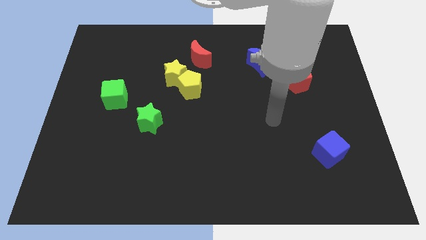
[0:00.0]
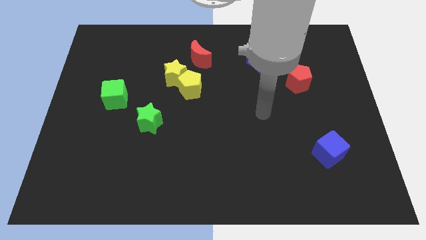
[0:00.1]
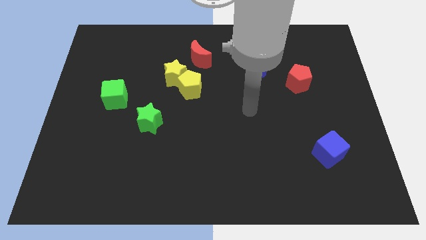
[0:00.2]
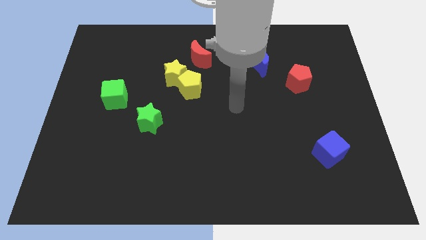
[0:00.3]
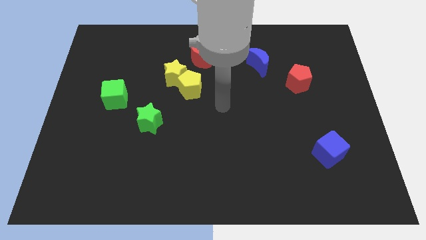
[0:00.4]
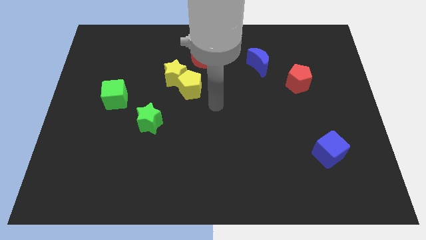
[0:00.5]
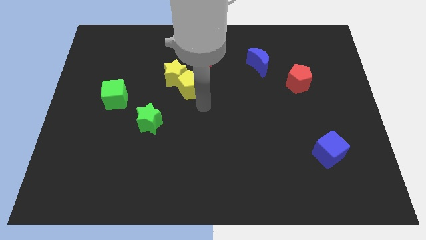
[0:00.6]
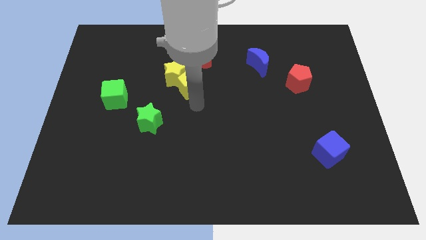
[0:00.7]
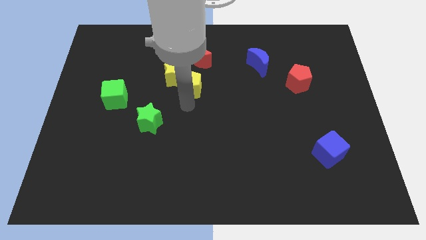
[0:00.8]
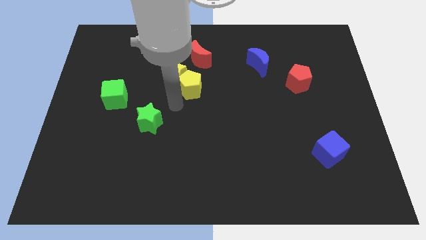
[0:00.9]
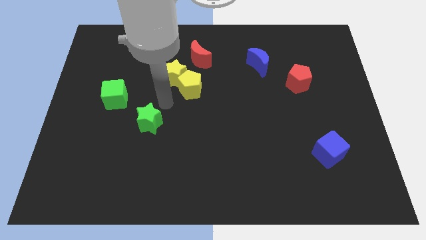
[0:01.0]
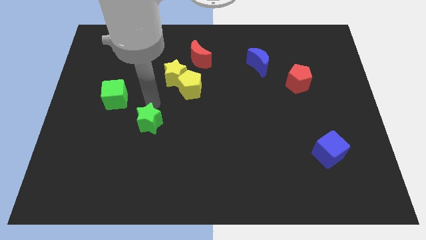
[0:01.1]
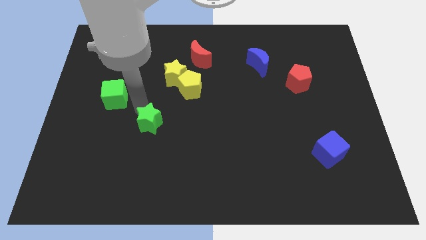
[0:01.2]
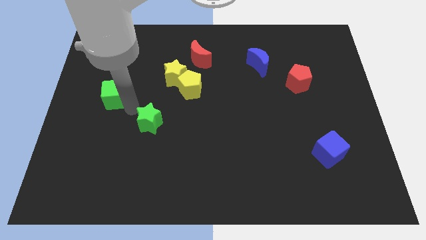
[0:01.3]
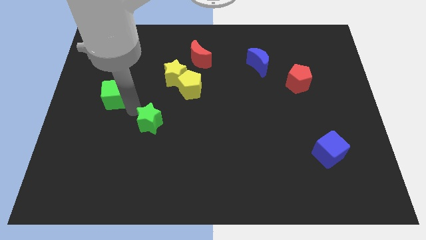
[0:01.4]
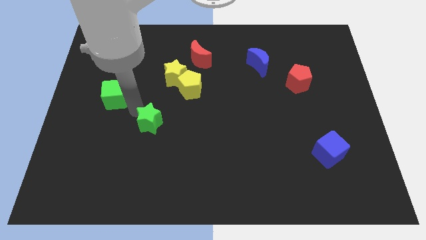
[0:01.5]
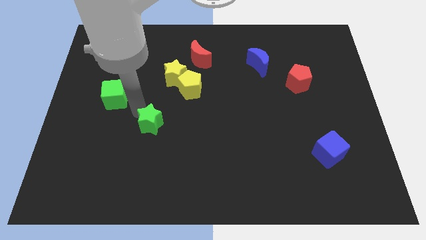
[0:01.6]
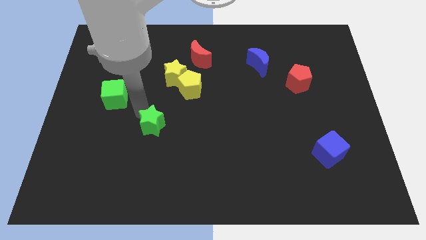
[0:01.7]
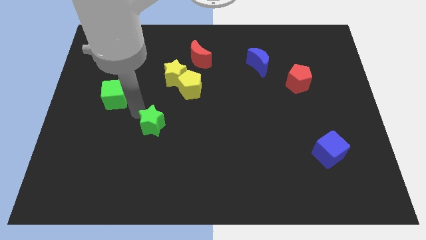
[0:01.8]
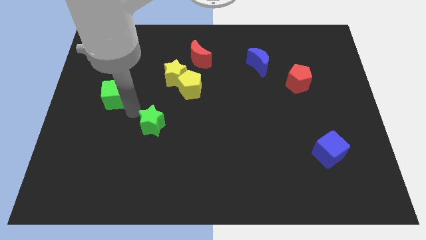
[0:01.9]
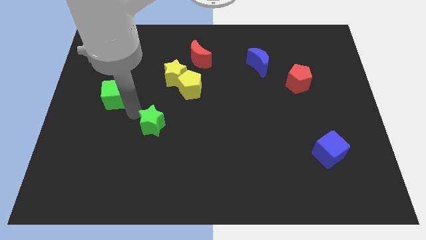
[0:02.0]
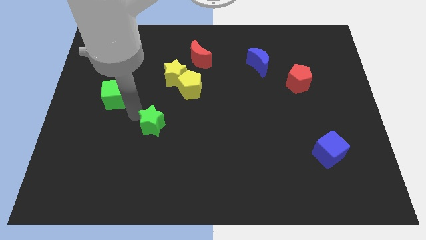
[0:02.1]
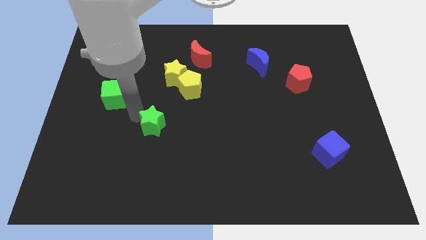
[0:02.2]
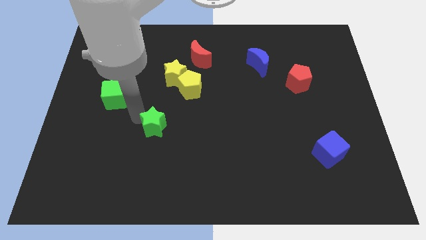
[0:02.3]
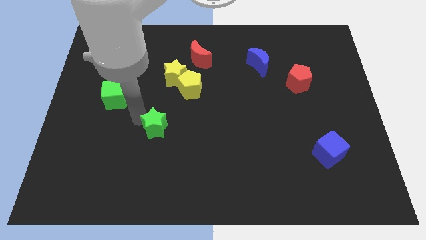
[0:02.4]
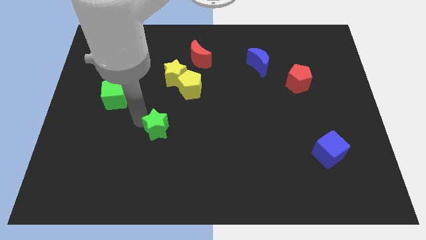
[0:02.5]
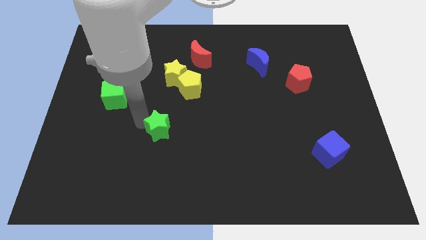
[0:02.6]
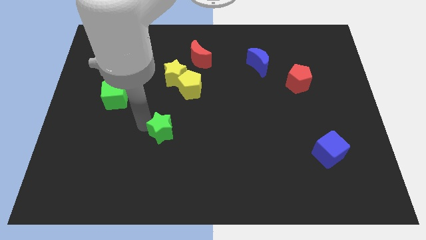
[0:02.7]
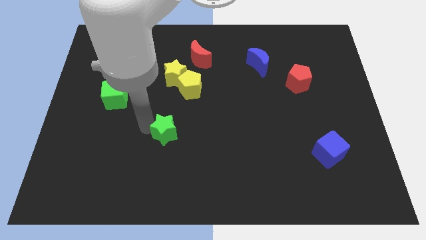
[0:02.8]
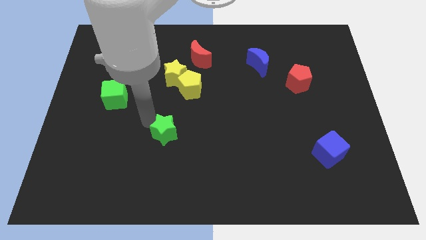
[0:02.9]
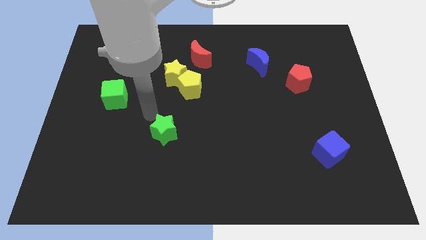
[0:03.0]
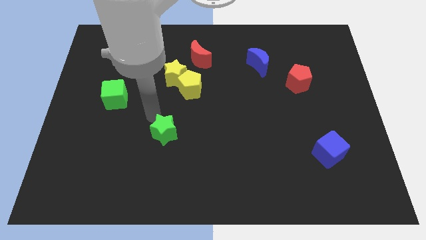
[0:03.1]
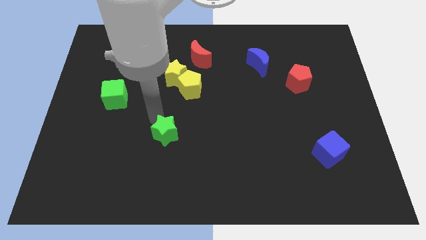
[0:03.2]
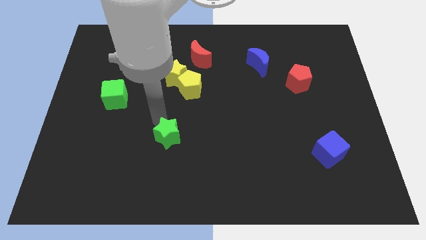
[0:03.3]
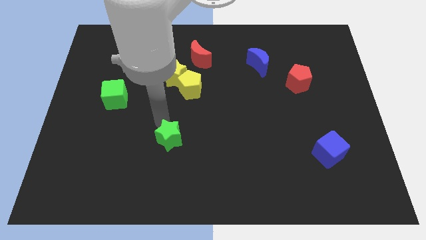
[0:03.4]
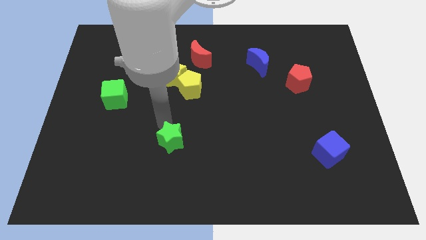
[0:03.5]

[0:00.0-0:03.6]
move the green star down and to the right diagonally a little bit

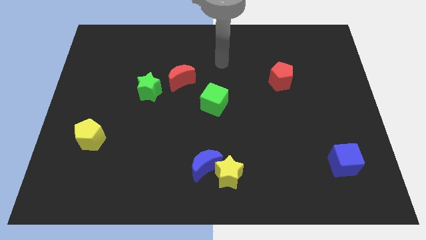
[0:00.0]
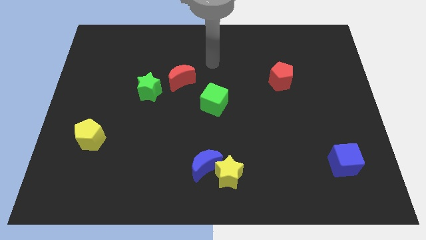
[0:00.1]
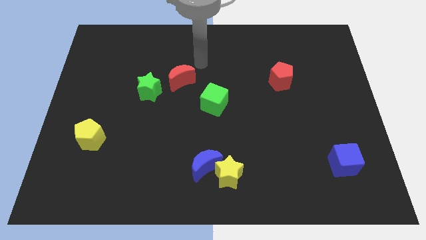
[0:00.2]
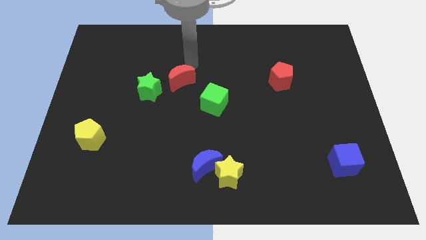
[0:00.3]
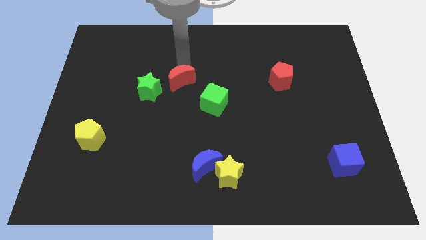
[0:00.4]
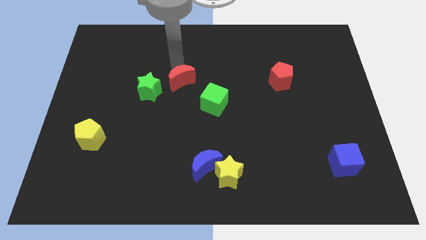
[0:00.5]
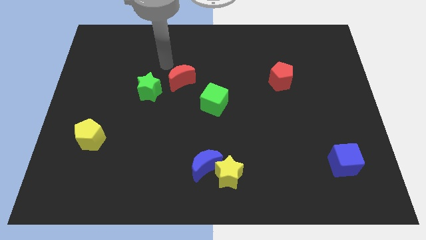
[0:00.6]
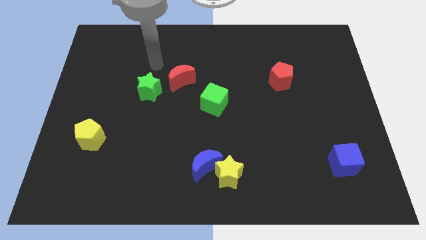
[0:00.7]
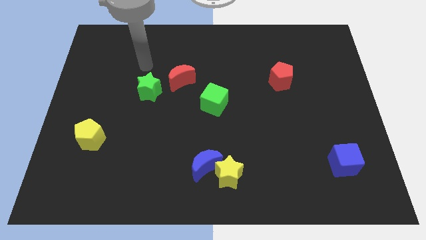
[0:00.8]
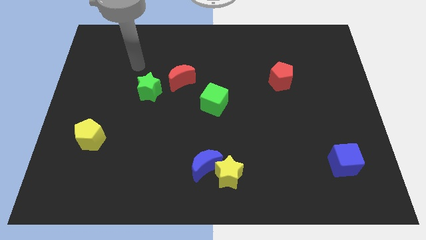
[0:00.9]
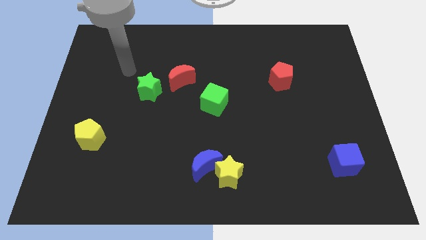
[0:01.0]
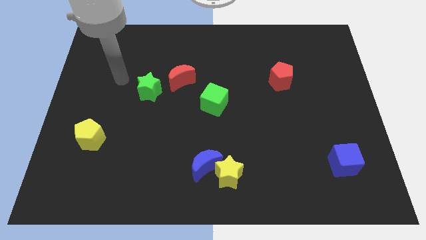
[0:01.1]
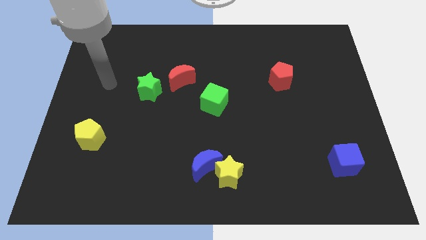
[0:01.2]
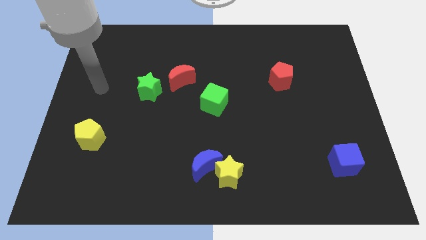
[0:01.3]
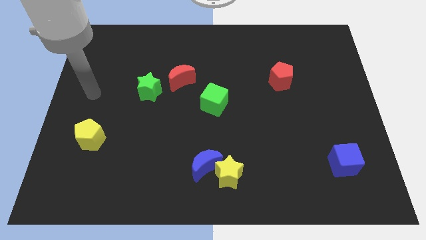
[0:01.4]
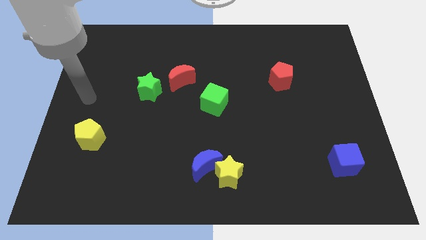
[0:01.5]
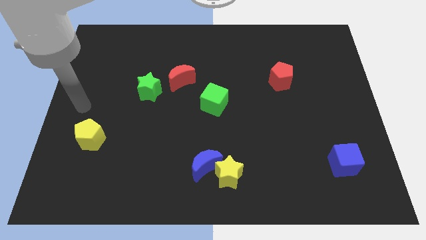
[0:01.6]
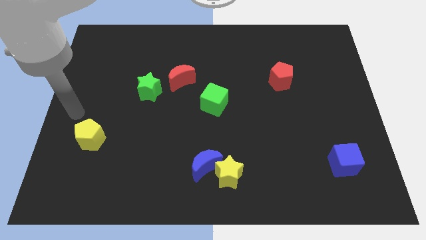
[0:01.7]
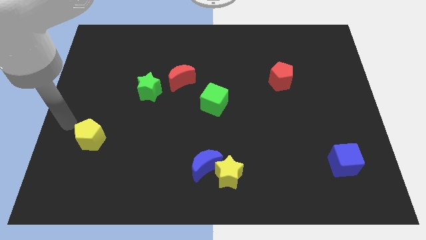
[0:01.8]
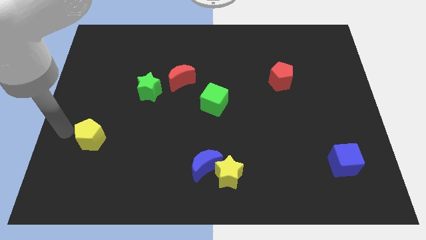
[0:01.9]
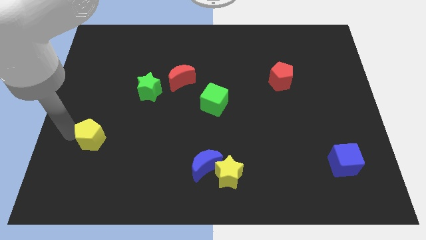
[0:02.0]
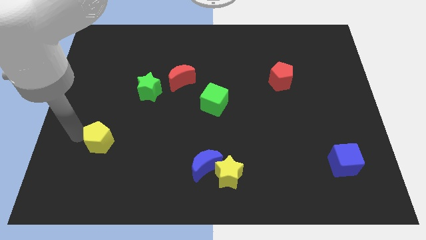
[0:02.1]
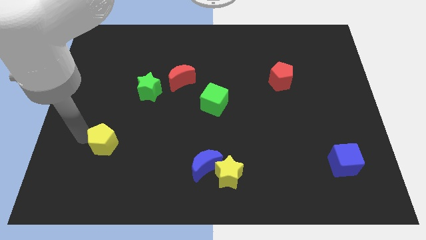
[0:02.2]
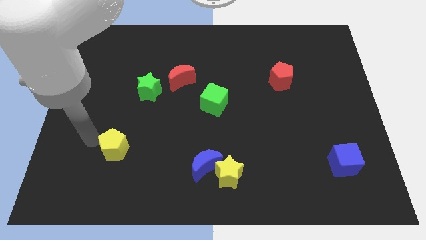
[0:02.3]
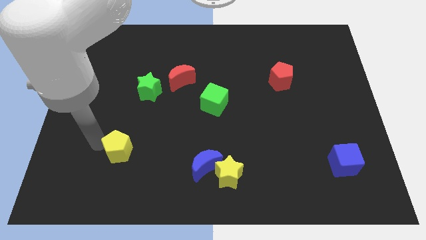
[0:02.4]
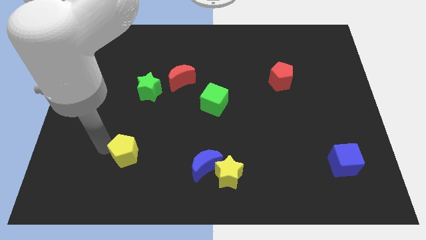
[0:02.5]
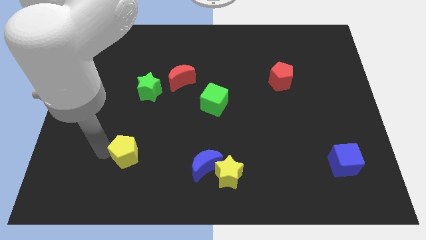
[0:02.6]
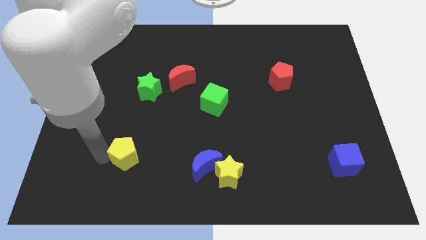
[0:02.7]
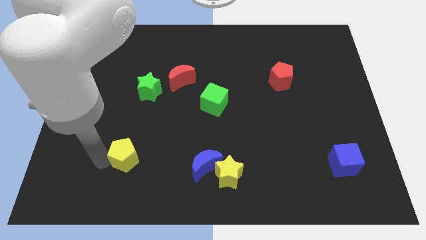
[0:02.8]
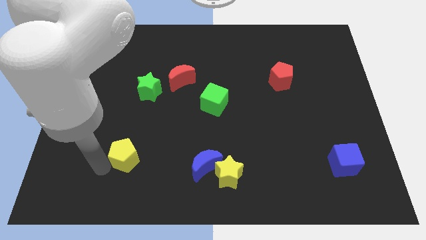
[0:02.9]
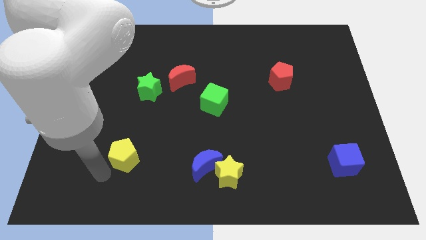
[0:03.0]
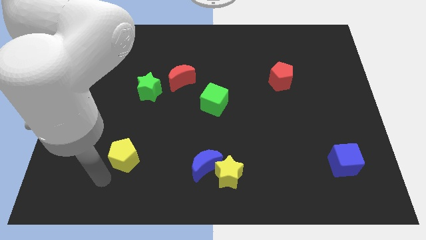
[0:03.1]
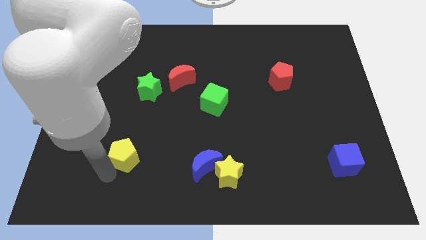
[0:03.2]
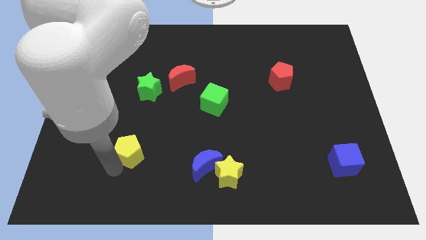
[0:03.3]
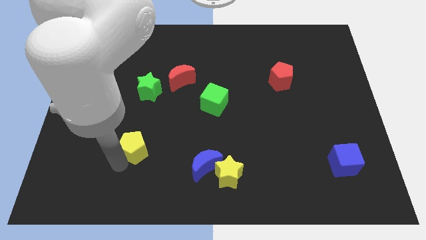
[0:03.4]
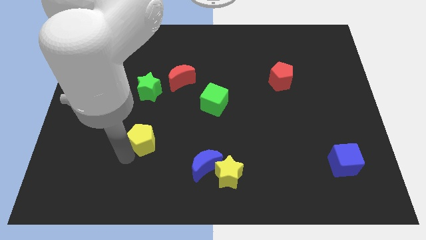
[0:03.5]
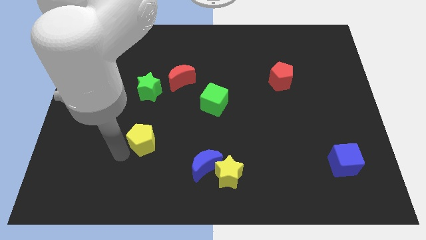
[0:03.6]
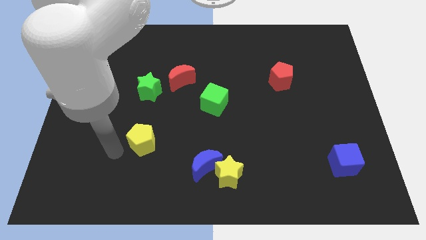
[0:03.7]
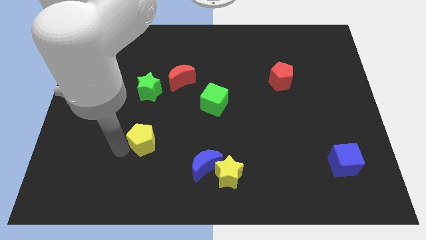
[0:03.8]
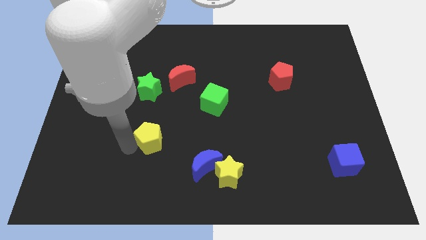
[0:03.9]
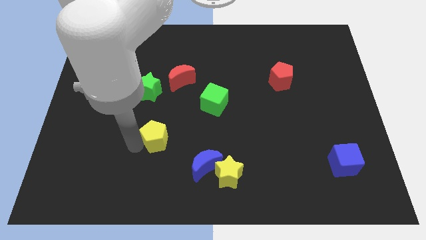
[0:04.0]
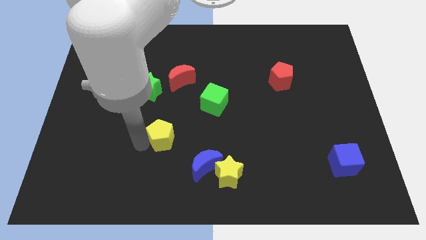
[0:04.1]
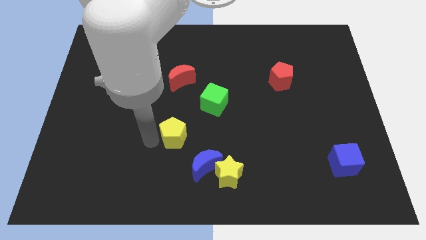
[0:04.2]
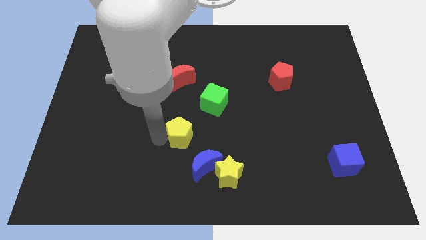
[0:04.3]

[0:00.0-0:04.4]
slide the yellow pentagon to the right

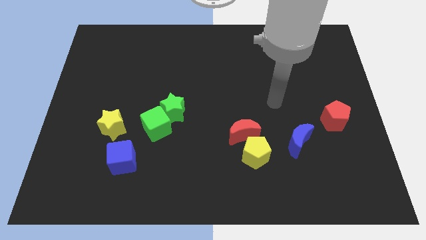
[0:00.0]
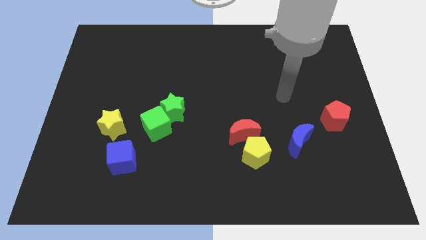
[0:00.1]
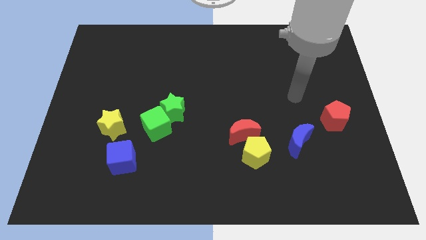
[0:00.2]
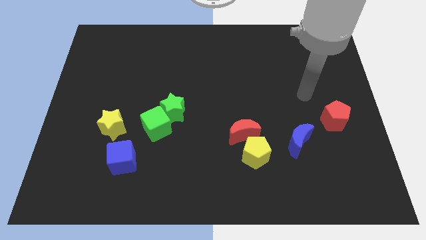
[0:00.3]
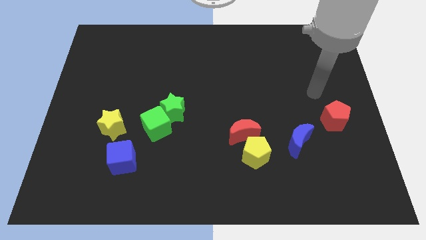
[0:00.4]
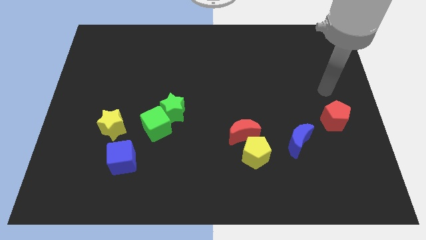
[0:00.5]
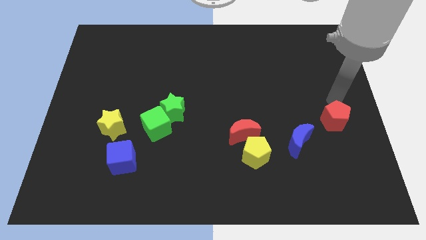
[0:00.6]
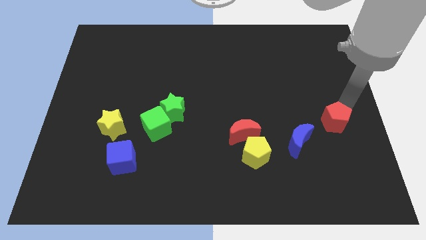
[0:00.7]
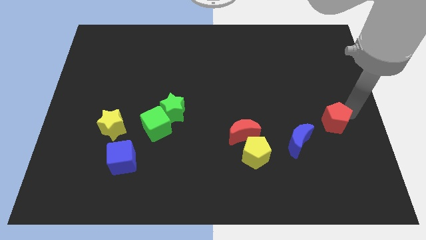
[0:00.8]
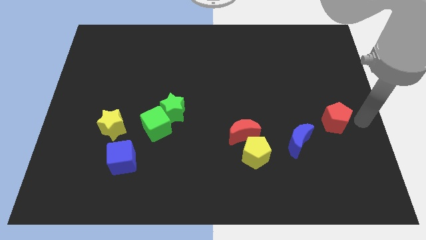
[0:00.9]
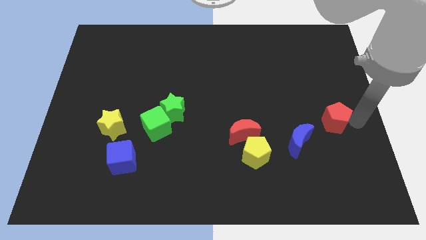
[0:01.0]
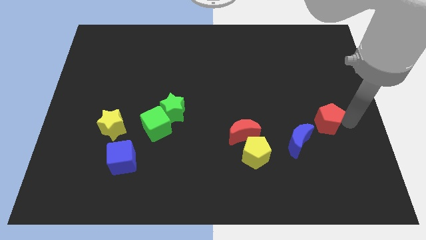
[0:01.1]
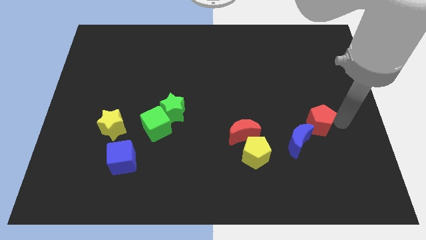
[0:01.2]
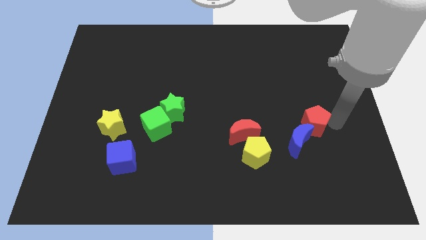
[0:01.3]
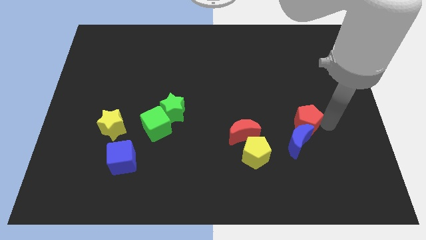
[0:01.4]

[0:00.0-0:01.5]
slightly move the red pentagon to the left
